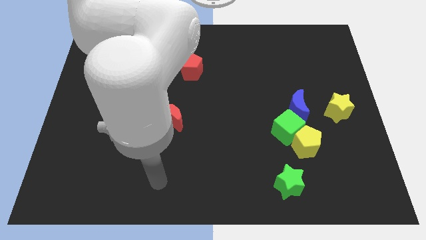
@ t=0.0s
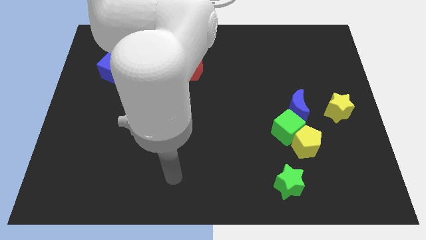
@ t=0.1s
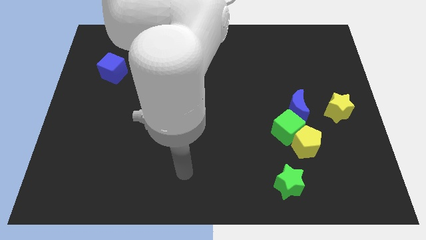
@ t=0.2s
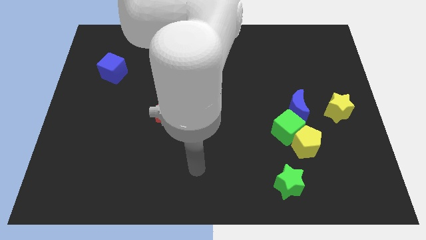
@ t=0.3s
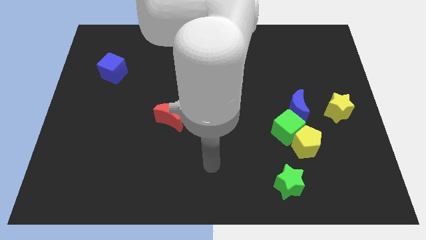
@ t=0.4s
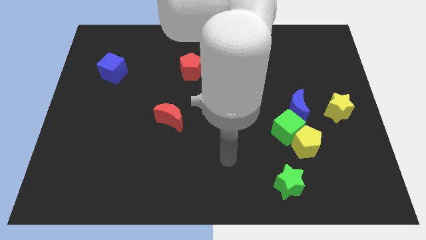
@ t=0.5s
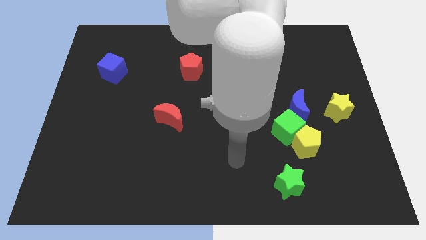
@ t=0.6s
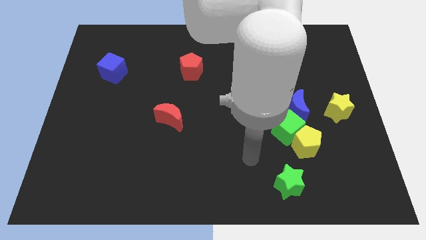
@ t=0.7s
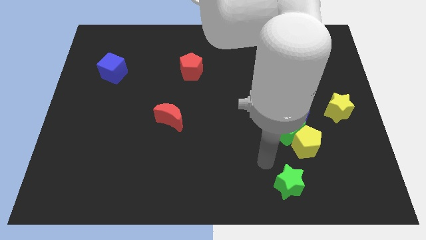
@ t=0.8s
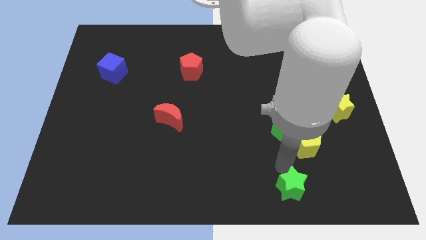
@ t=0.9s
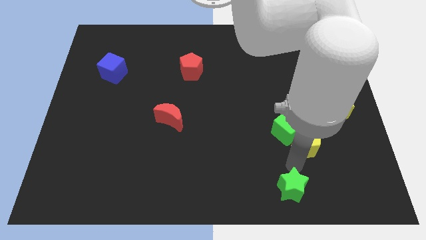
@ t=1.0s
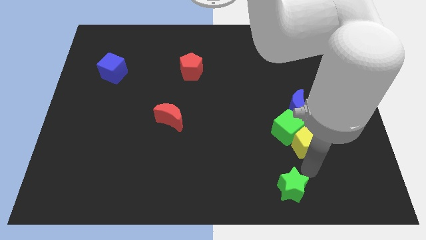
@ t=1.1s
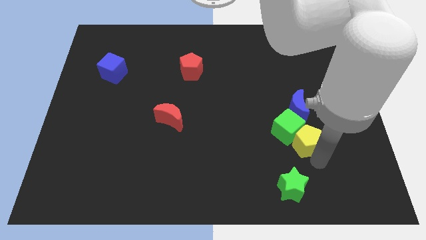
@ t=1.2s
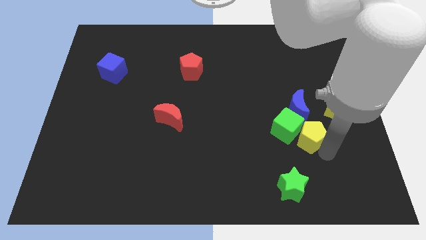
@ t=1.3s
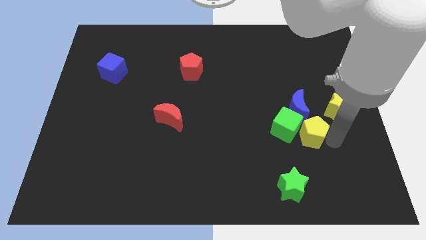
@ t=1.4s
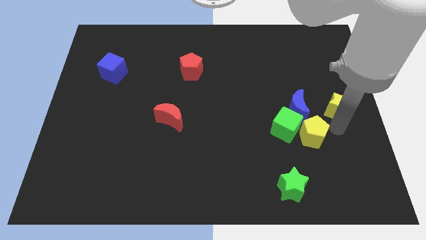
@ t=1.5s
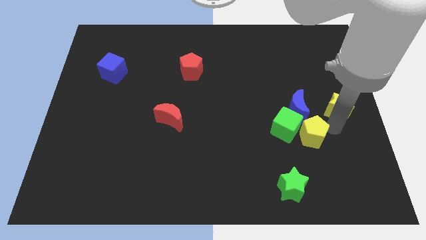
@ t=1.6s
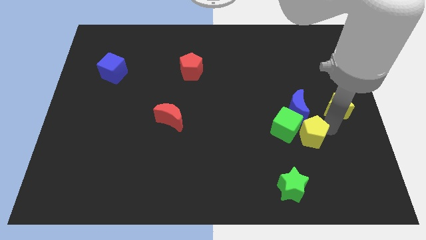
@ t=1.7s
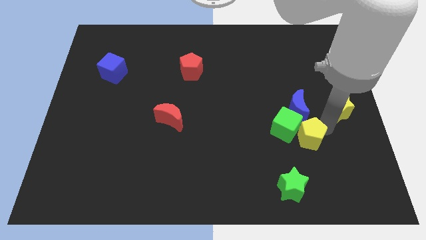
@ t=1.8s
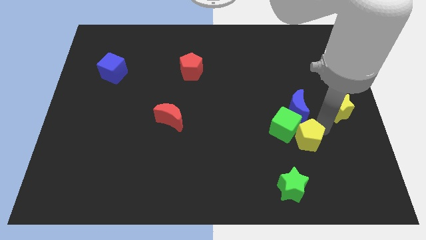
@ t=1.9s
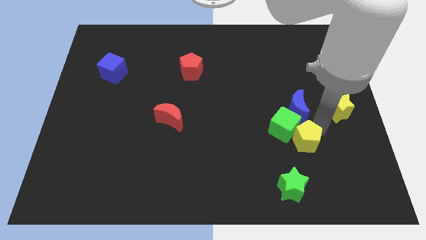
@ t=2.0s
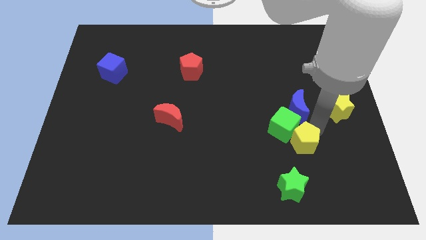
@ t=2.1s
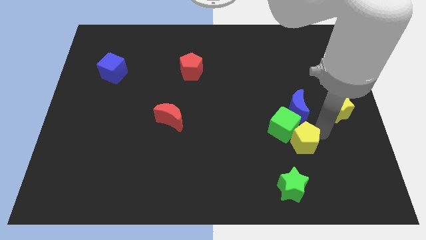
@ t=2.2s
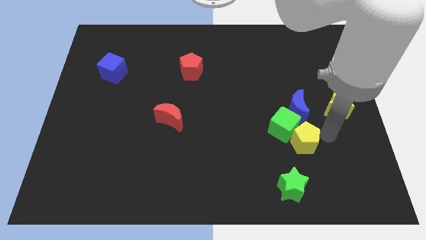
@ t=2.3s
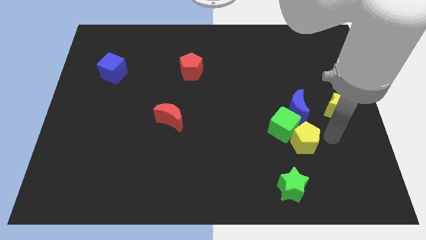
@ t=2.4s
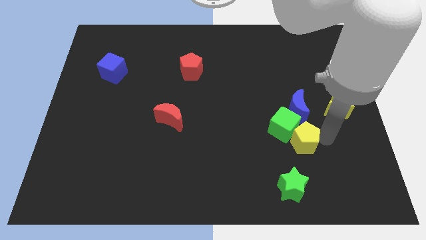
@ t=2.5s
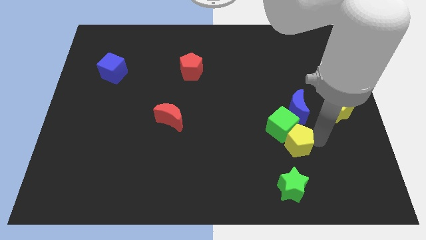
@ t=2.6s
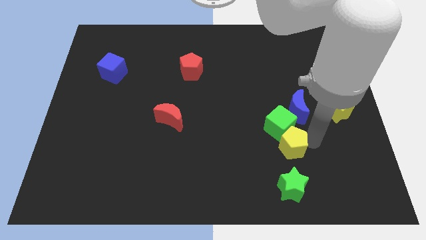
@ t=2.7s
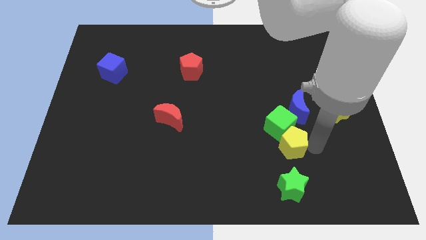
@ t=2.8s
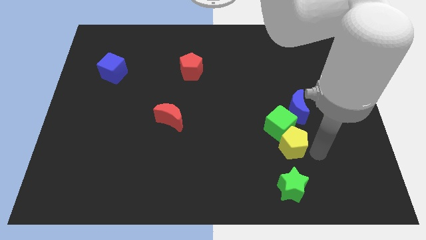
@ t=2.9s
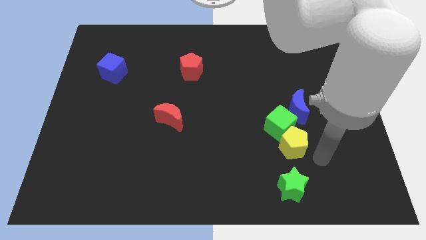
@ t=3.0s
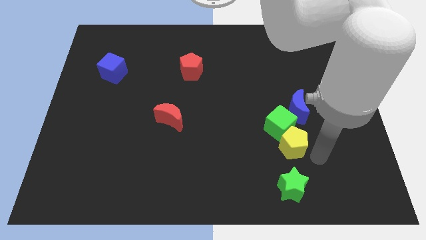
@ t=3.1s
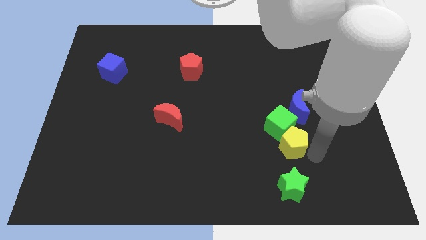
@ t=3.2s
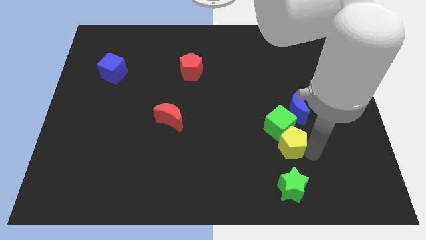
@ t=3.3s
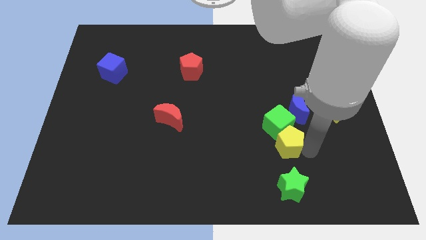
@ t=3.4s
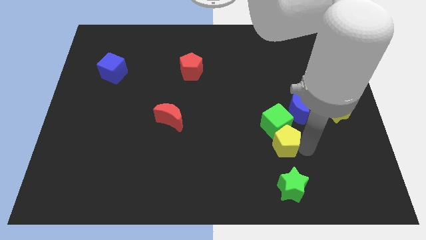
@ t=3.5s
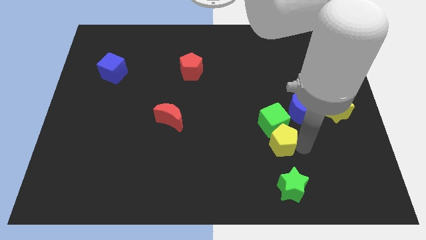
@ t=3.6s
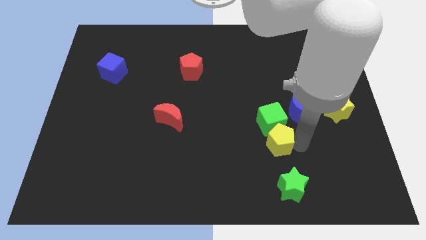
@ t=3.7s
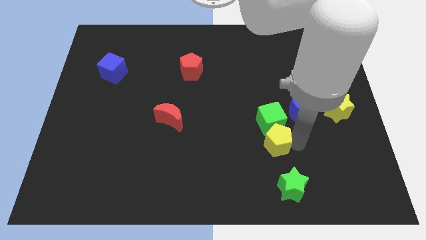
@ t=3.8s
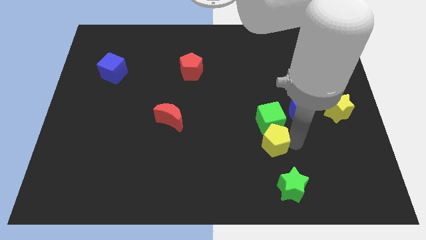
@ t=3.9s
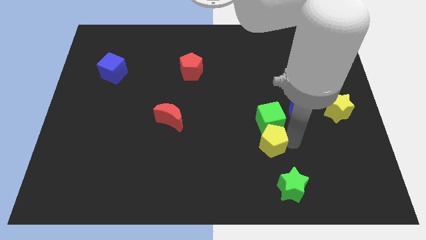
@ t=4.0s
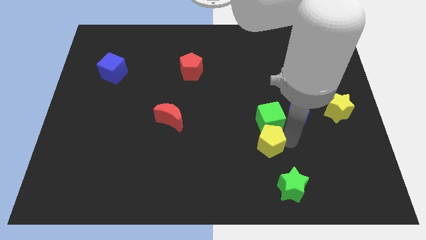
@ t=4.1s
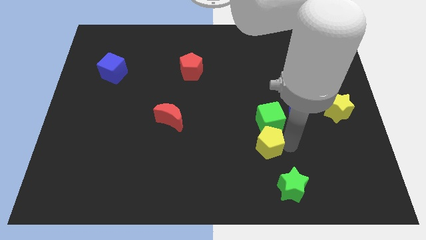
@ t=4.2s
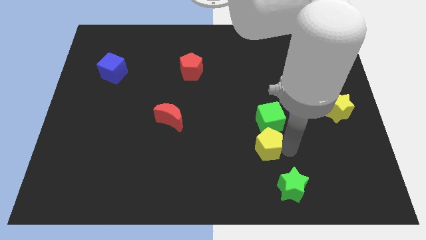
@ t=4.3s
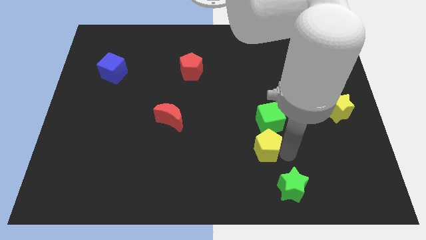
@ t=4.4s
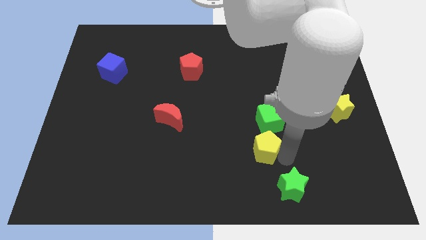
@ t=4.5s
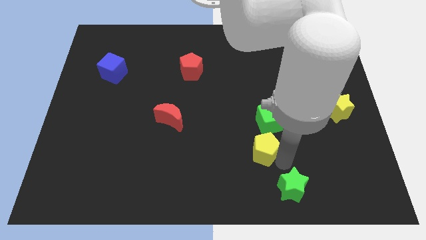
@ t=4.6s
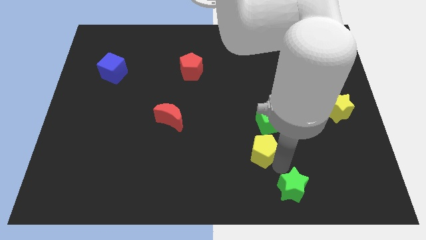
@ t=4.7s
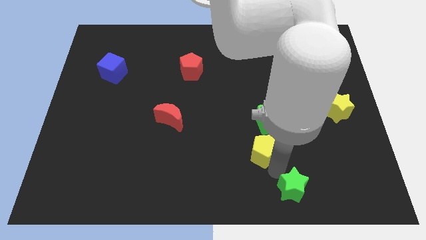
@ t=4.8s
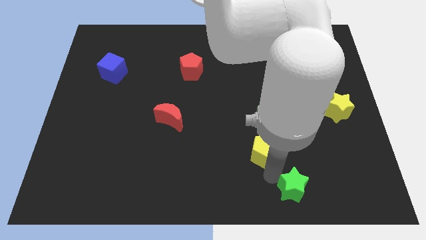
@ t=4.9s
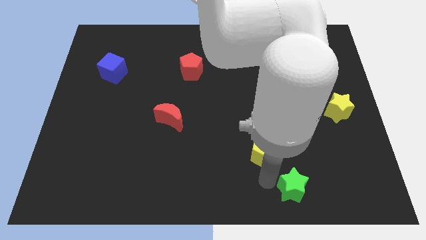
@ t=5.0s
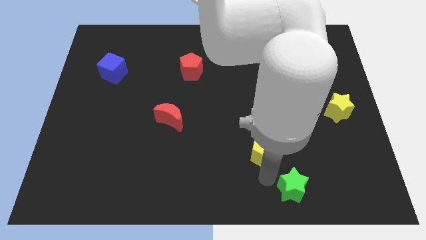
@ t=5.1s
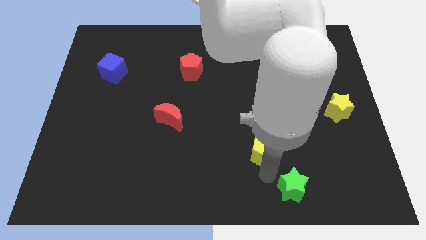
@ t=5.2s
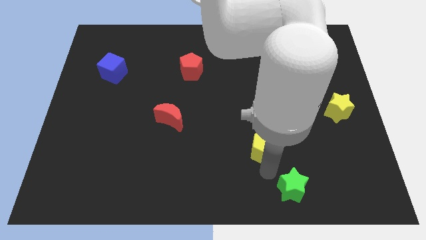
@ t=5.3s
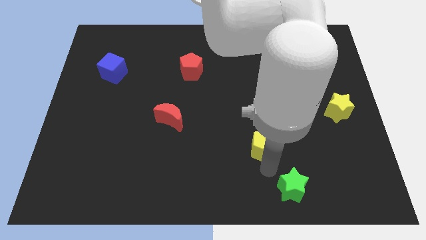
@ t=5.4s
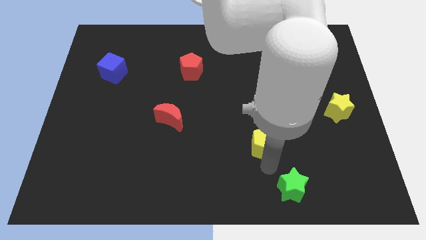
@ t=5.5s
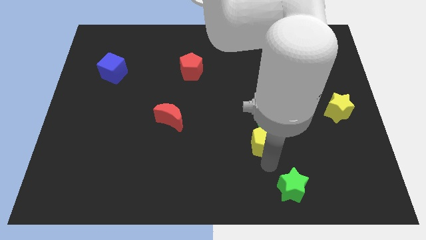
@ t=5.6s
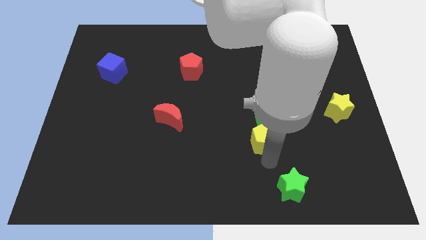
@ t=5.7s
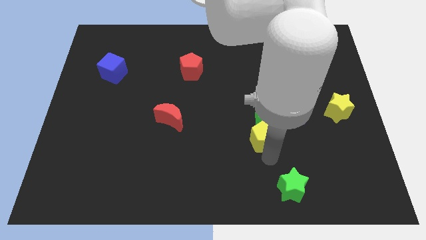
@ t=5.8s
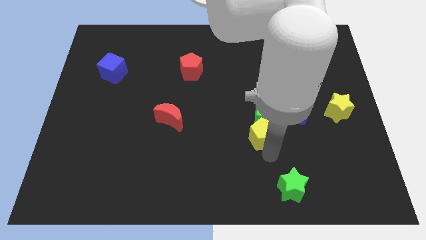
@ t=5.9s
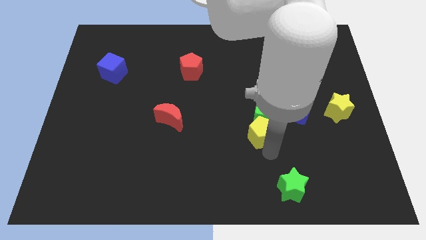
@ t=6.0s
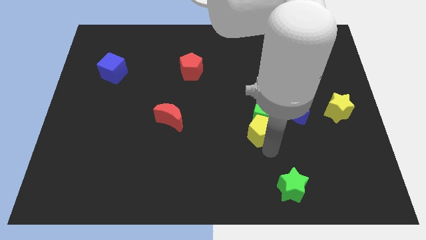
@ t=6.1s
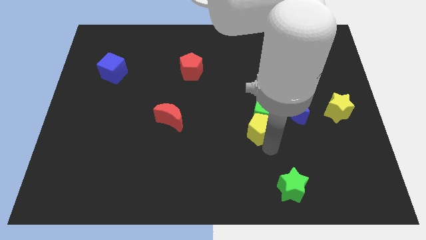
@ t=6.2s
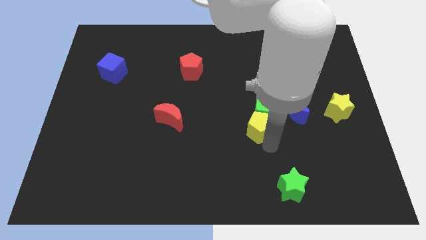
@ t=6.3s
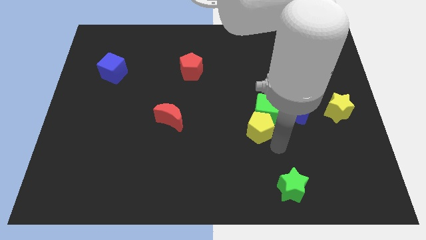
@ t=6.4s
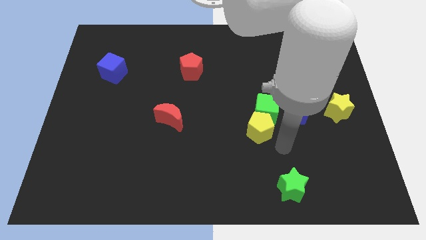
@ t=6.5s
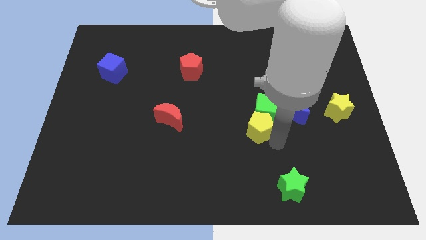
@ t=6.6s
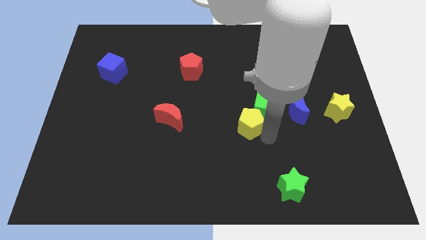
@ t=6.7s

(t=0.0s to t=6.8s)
move the yellow pentagon to the middle of the board
